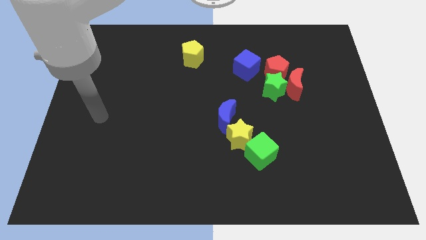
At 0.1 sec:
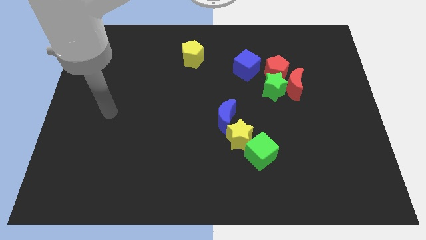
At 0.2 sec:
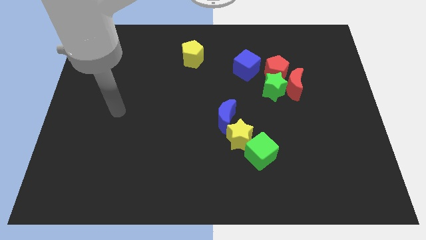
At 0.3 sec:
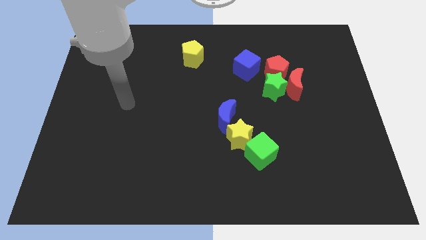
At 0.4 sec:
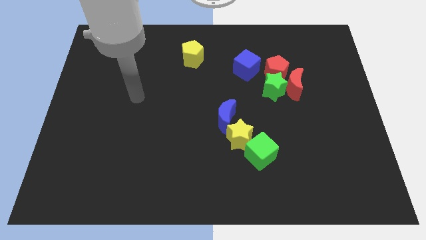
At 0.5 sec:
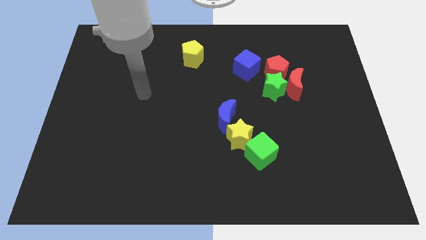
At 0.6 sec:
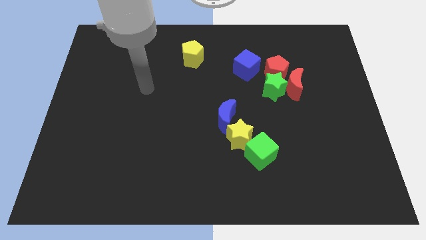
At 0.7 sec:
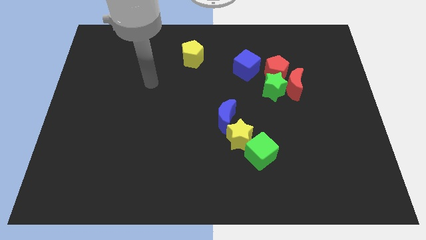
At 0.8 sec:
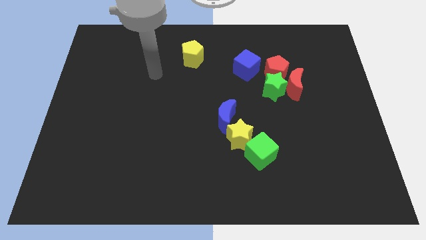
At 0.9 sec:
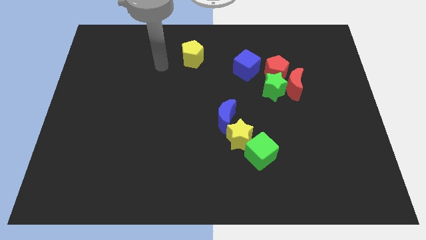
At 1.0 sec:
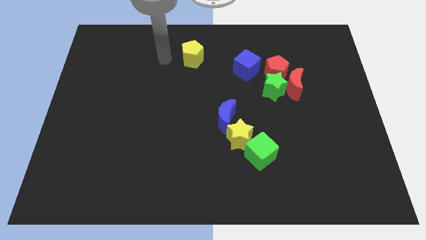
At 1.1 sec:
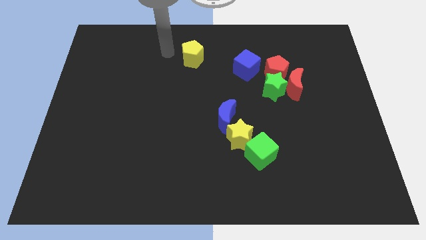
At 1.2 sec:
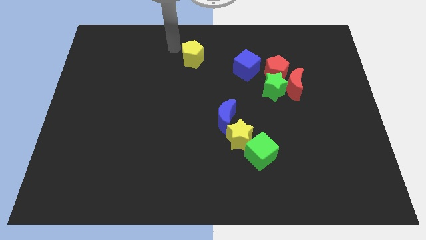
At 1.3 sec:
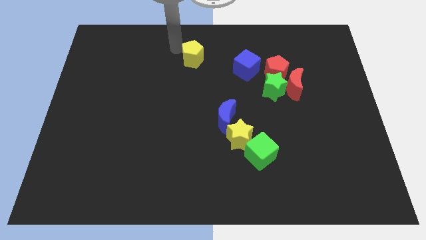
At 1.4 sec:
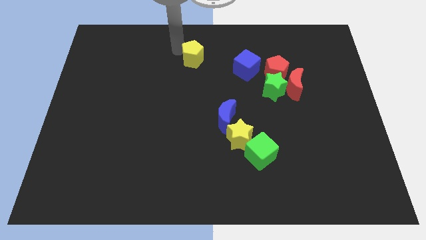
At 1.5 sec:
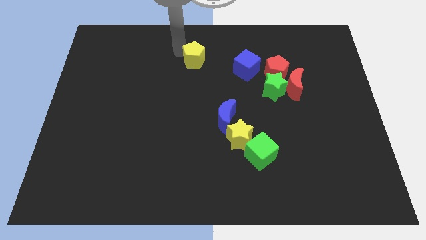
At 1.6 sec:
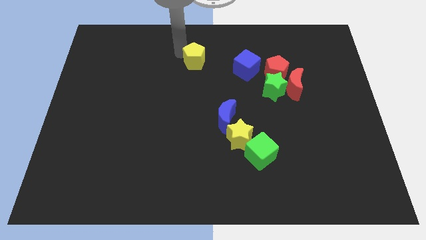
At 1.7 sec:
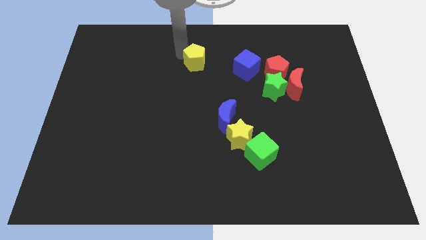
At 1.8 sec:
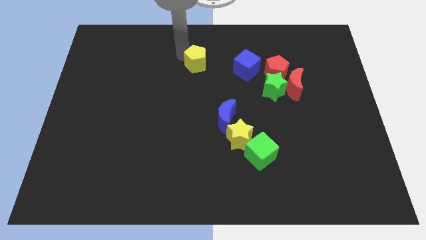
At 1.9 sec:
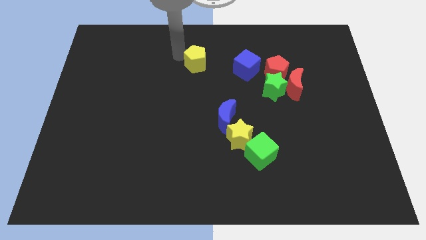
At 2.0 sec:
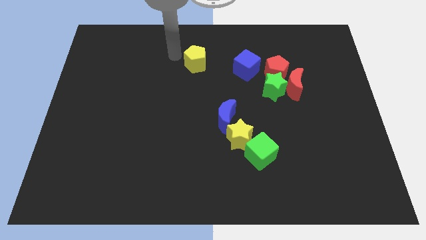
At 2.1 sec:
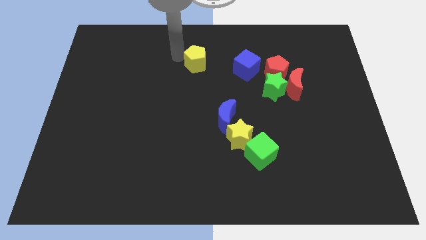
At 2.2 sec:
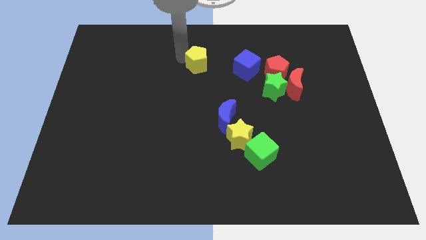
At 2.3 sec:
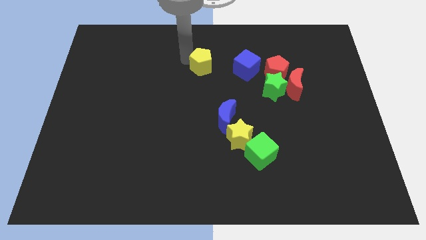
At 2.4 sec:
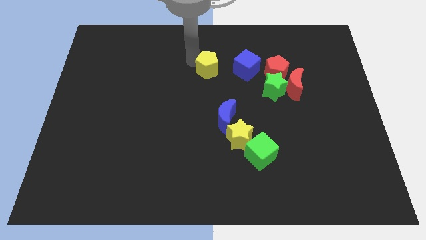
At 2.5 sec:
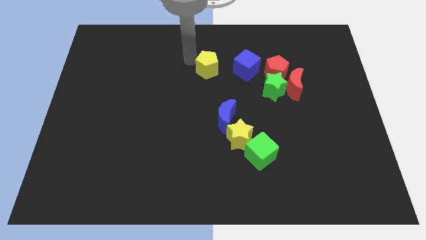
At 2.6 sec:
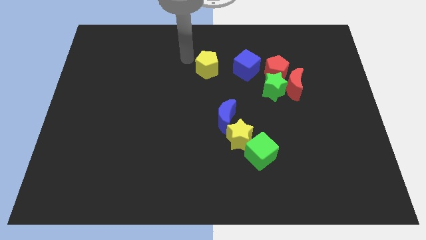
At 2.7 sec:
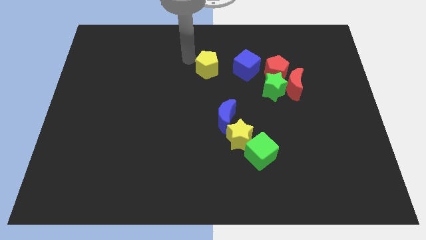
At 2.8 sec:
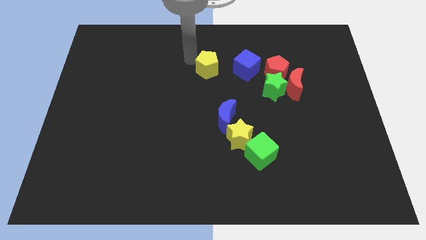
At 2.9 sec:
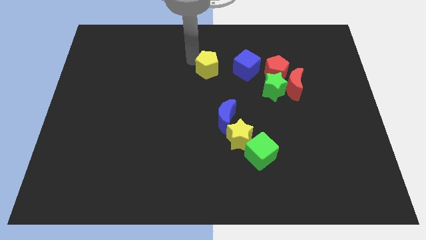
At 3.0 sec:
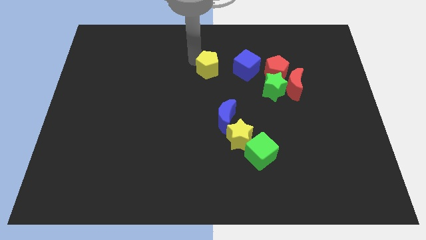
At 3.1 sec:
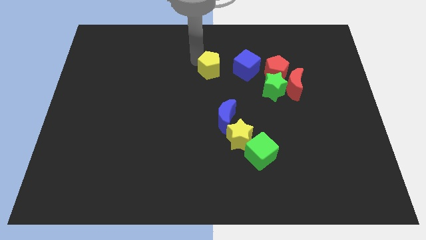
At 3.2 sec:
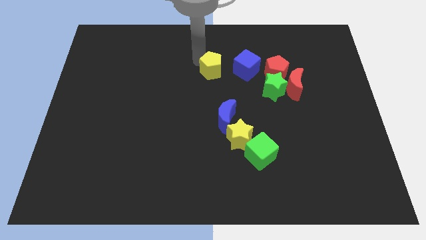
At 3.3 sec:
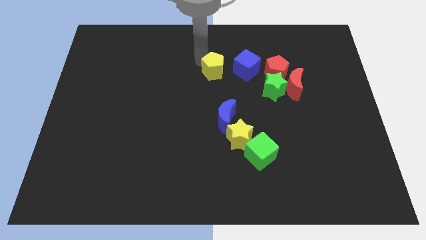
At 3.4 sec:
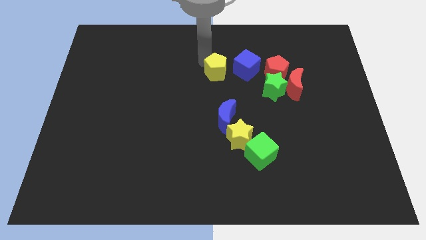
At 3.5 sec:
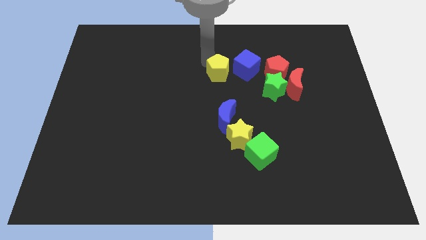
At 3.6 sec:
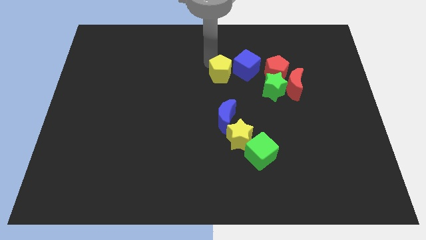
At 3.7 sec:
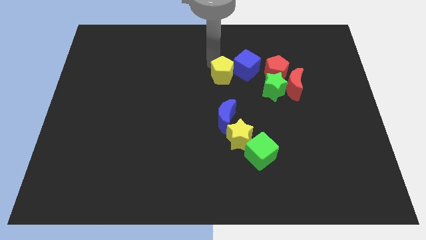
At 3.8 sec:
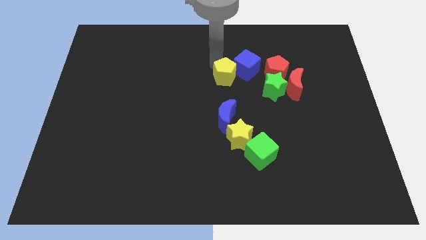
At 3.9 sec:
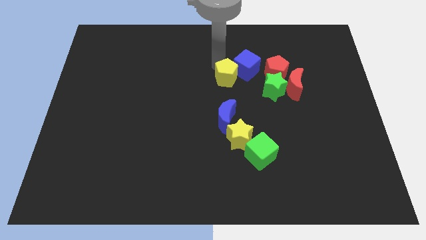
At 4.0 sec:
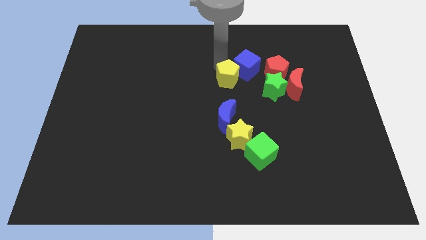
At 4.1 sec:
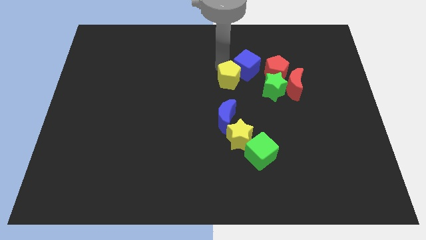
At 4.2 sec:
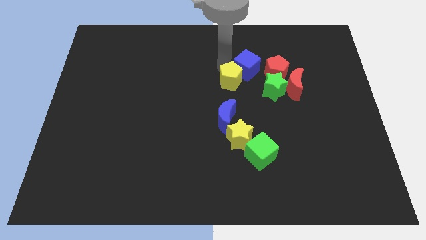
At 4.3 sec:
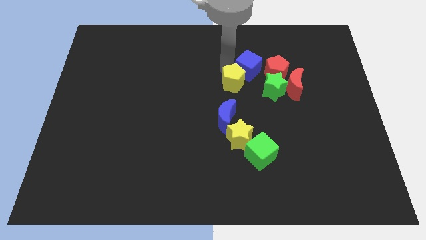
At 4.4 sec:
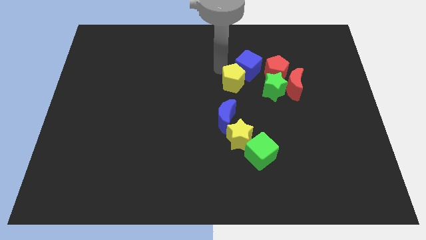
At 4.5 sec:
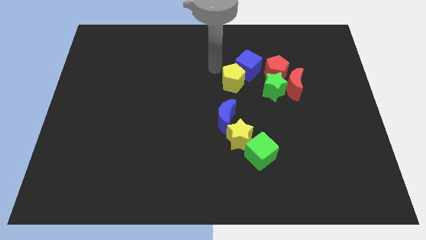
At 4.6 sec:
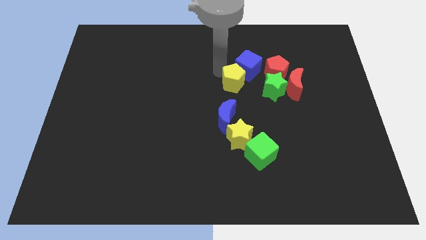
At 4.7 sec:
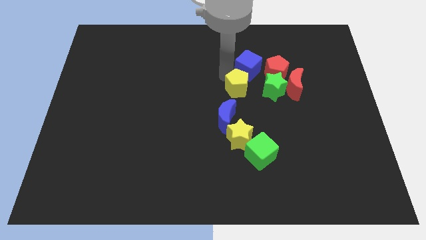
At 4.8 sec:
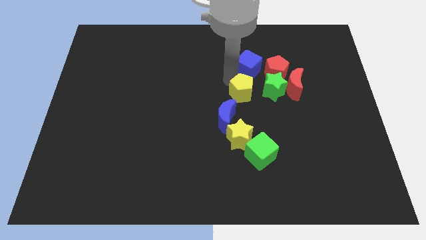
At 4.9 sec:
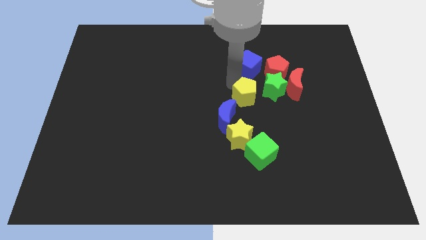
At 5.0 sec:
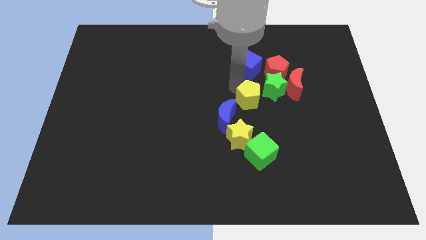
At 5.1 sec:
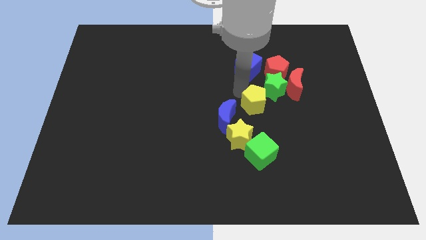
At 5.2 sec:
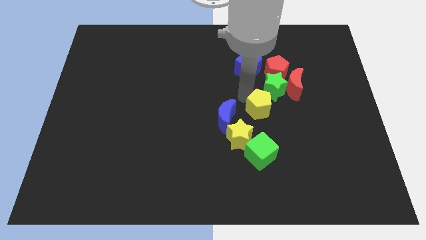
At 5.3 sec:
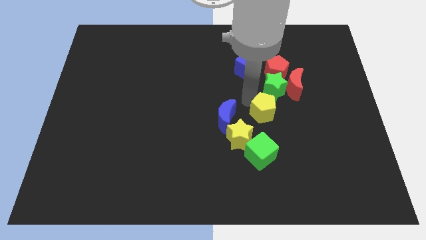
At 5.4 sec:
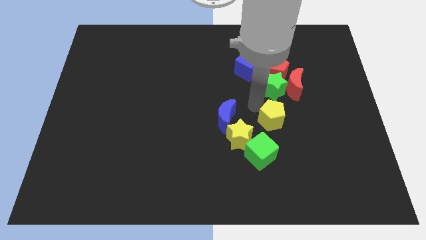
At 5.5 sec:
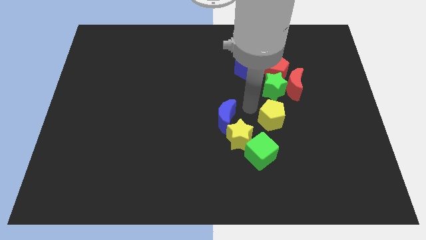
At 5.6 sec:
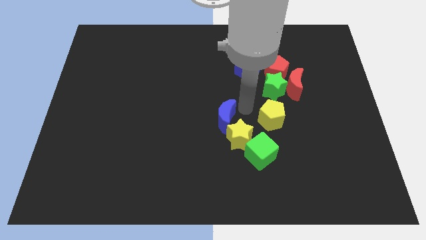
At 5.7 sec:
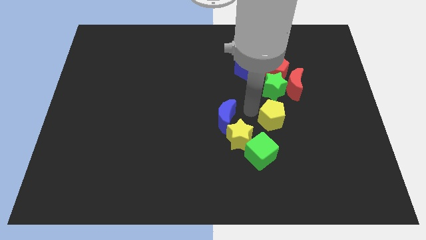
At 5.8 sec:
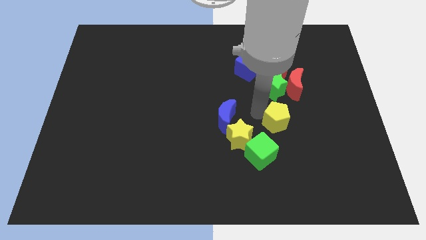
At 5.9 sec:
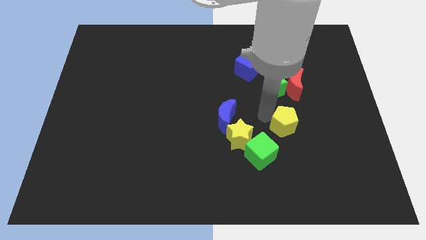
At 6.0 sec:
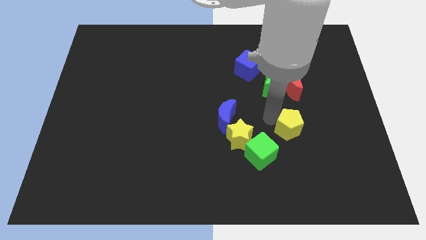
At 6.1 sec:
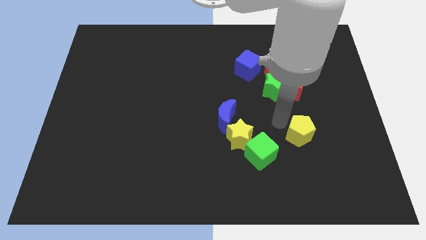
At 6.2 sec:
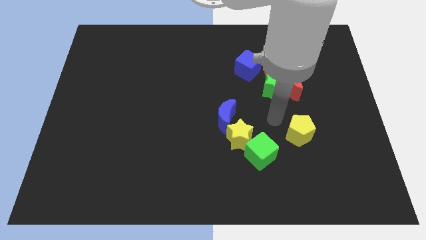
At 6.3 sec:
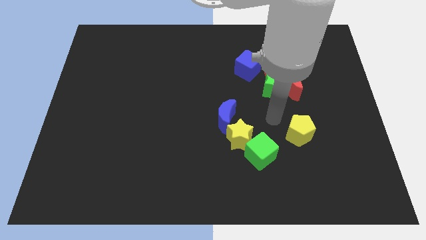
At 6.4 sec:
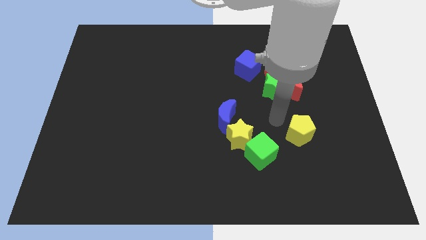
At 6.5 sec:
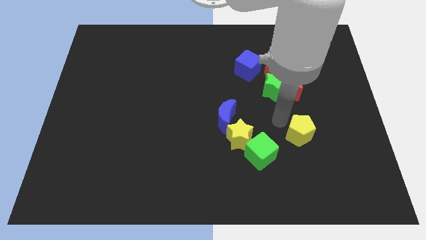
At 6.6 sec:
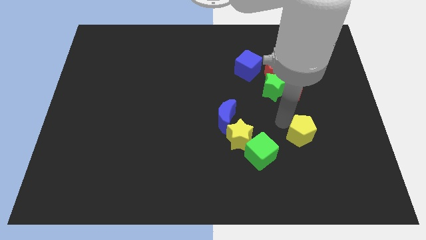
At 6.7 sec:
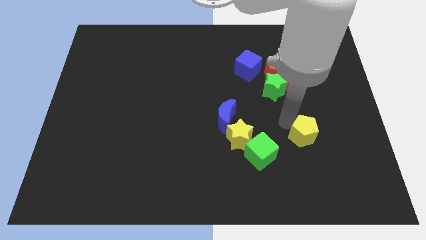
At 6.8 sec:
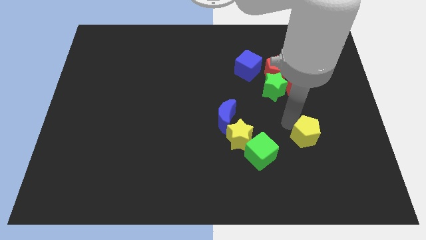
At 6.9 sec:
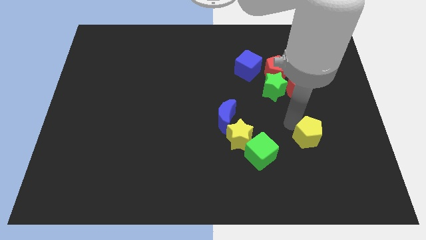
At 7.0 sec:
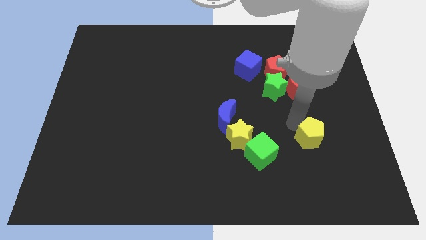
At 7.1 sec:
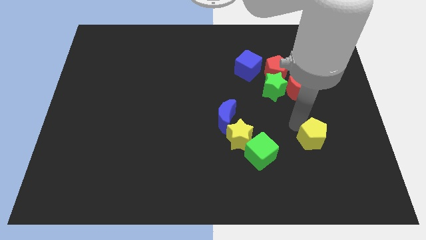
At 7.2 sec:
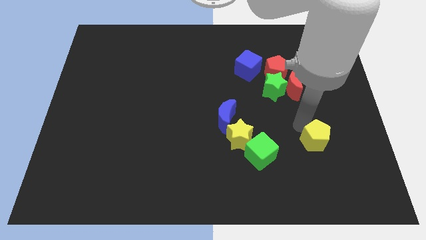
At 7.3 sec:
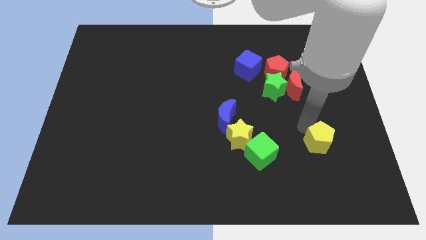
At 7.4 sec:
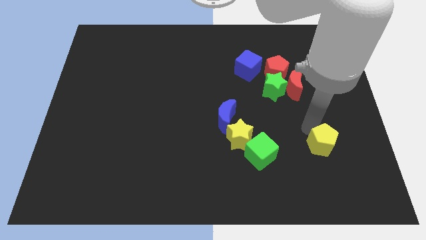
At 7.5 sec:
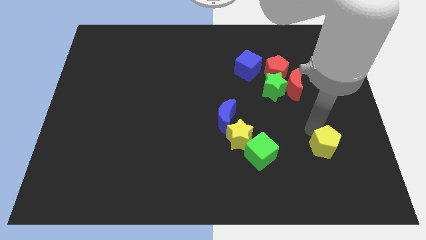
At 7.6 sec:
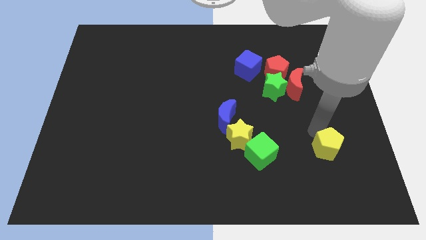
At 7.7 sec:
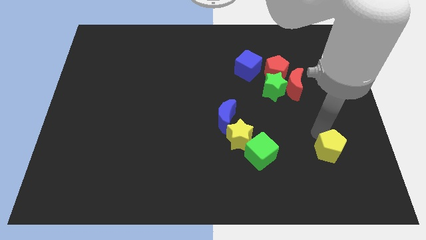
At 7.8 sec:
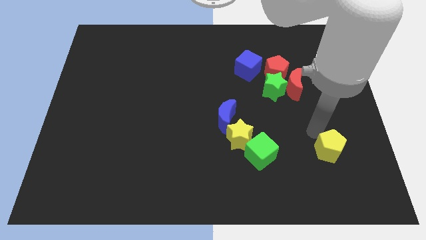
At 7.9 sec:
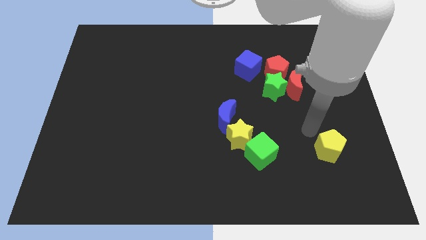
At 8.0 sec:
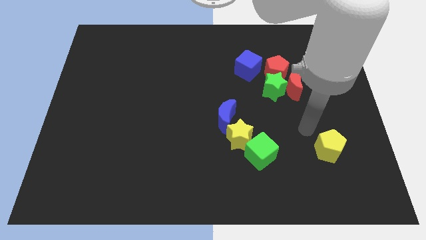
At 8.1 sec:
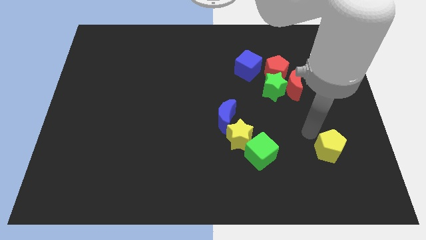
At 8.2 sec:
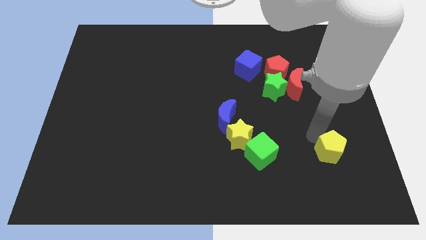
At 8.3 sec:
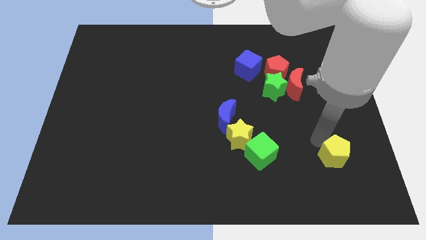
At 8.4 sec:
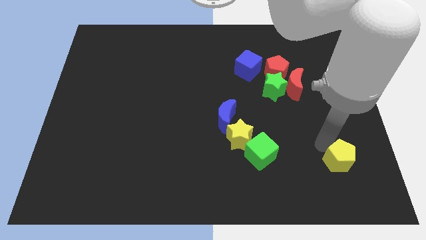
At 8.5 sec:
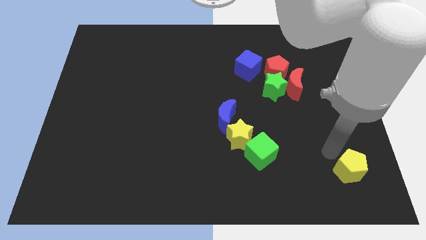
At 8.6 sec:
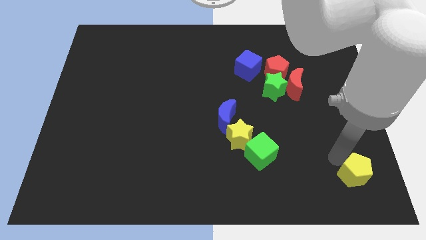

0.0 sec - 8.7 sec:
slide the yellow pentagon to the bottom right corner
